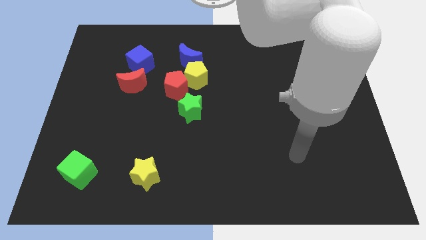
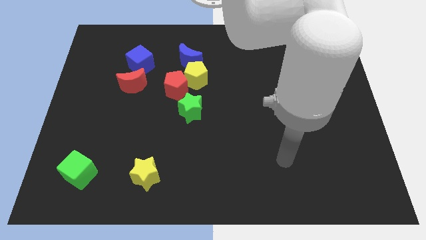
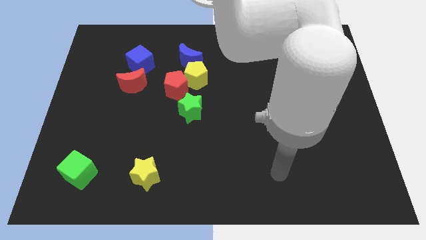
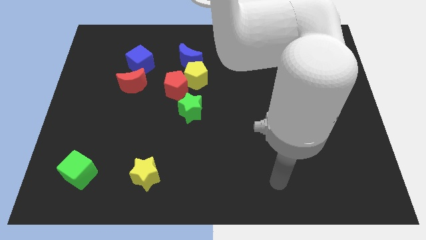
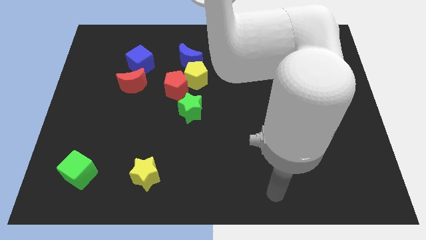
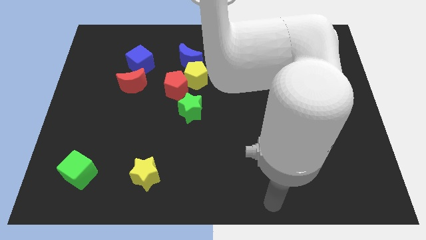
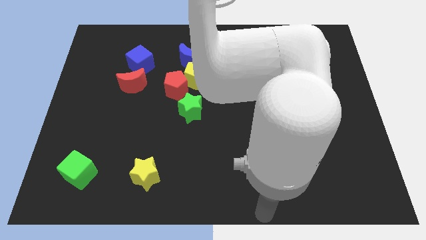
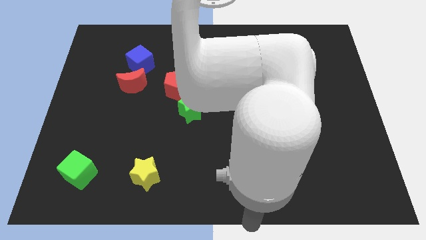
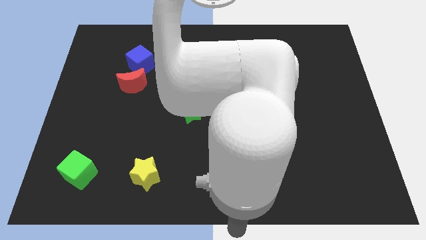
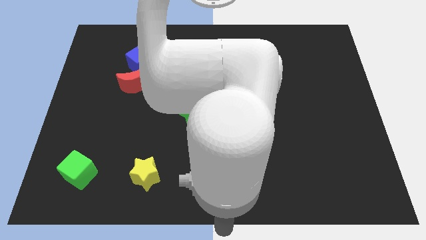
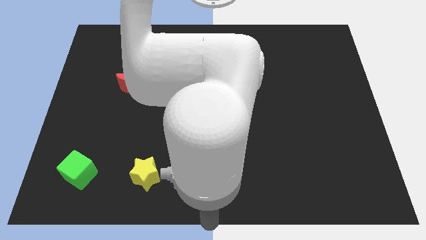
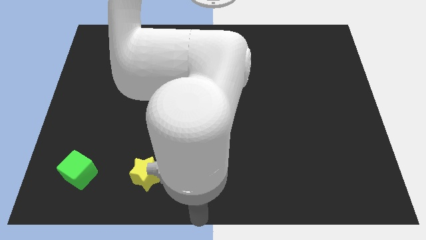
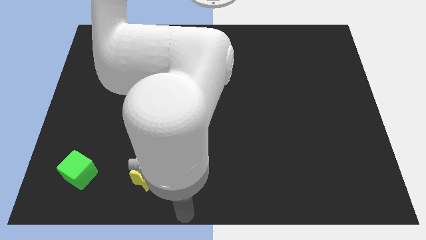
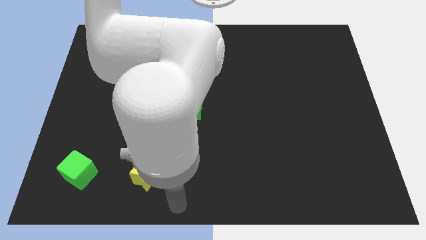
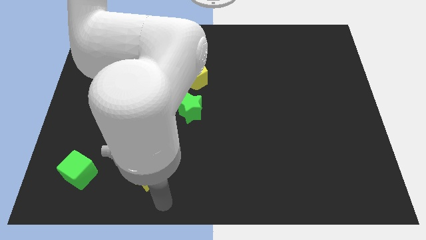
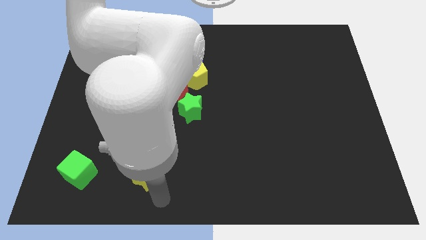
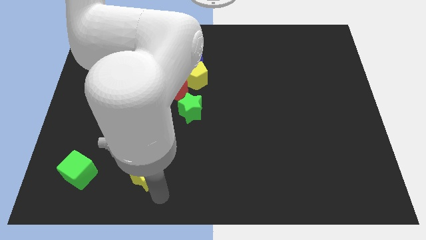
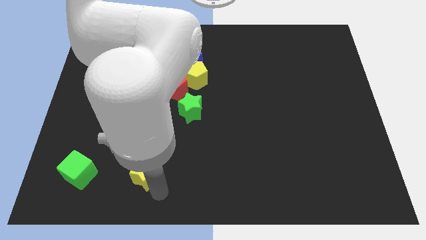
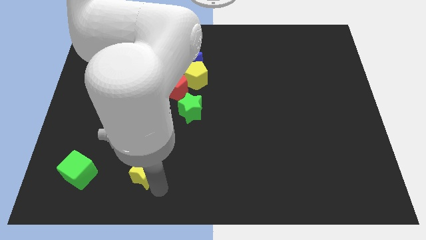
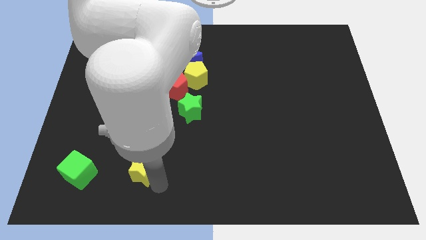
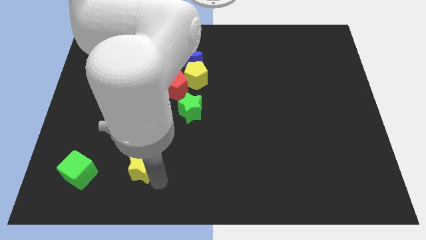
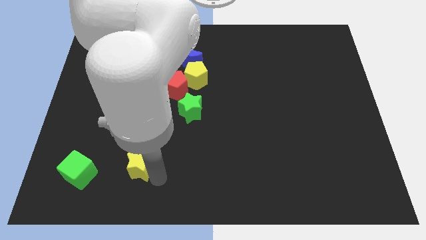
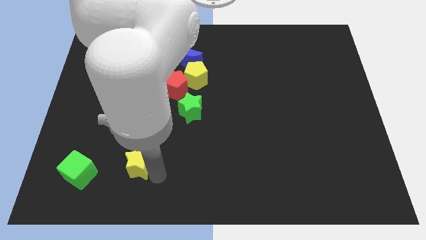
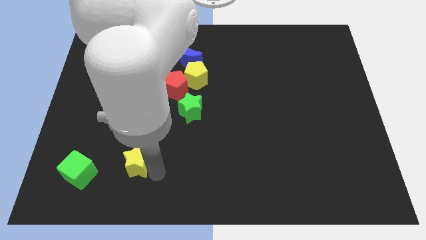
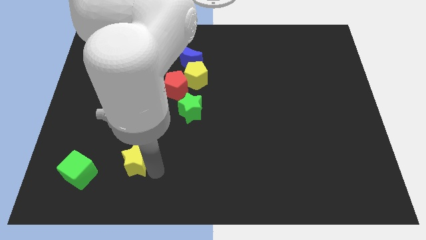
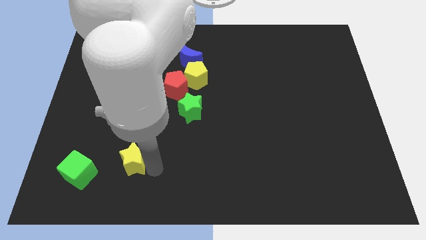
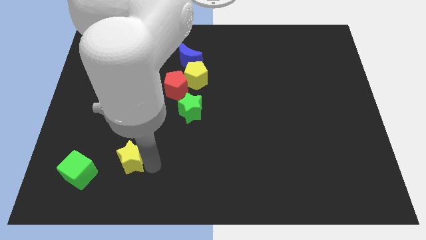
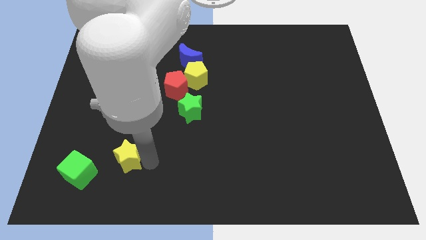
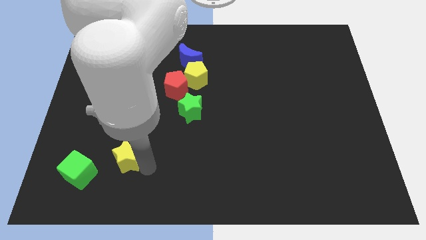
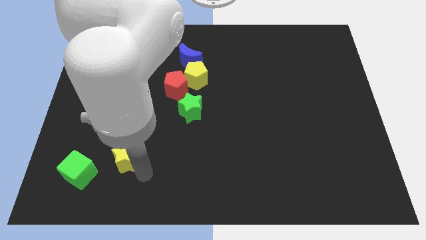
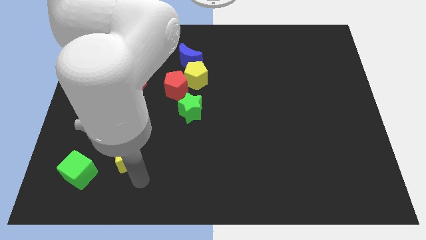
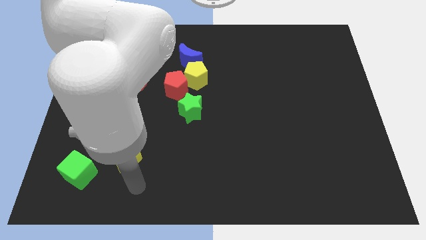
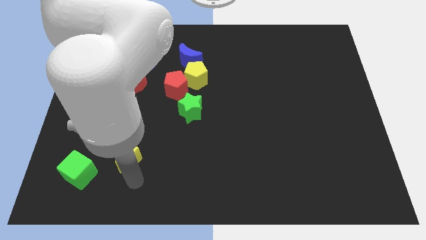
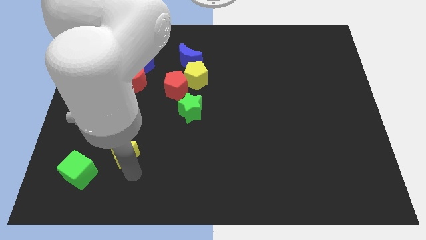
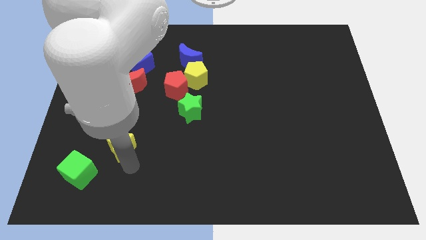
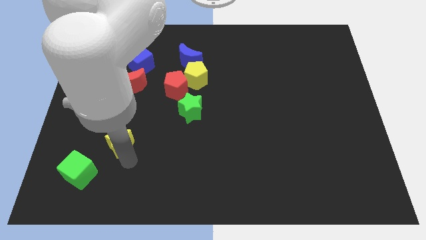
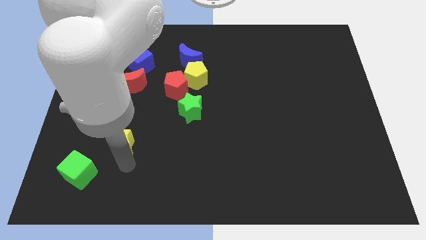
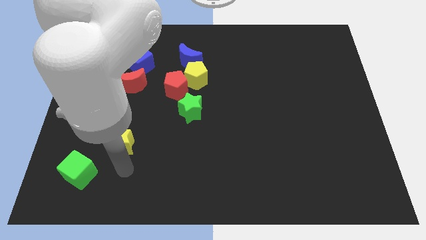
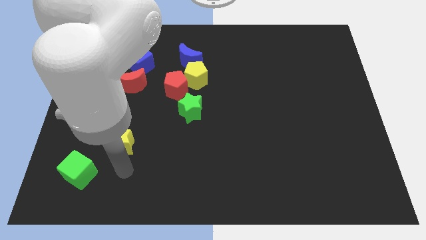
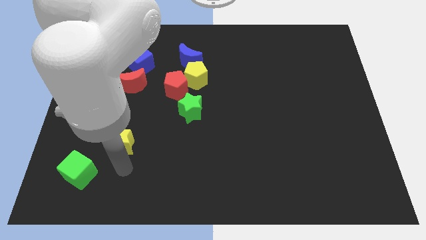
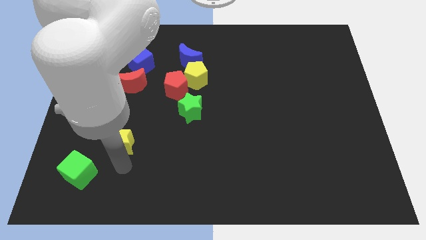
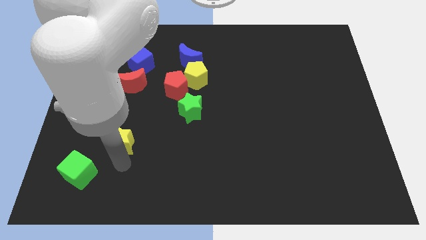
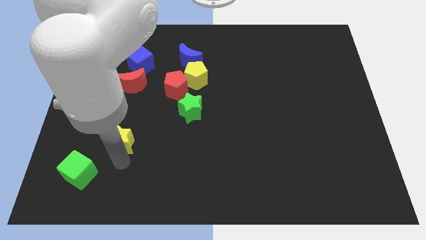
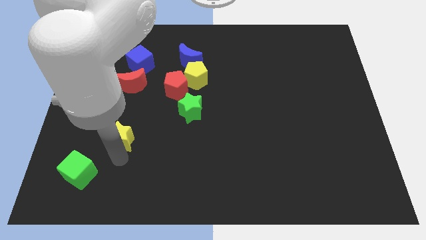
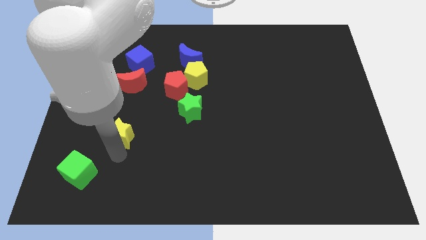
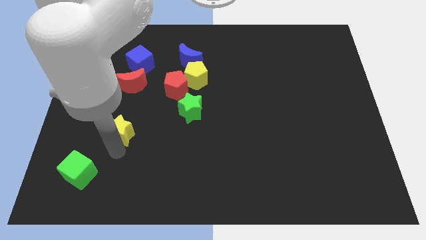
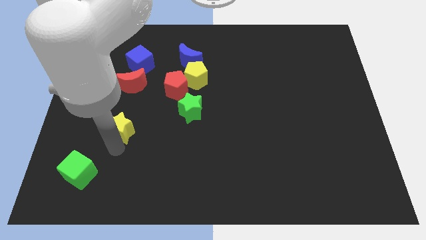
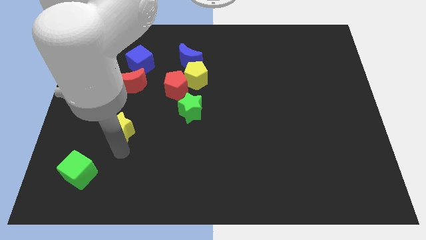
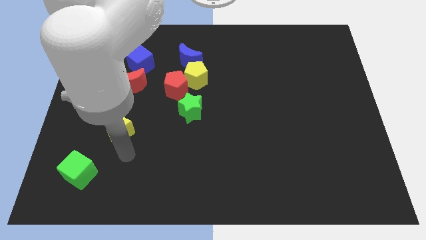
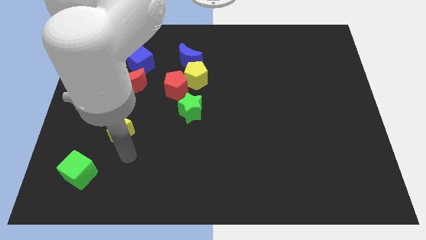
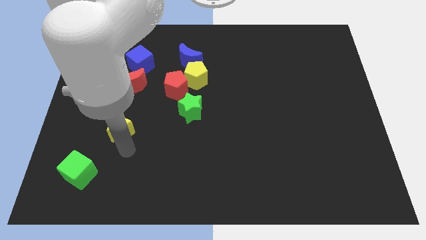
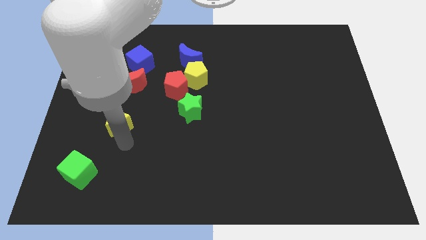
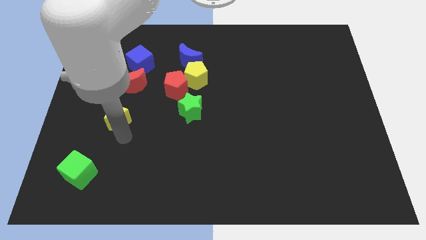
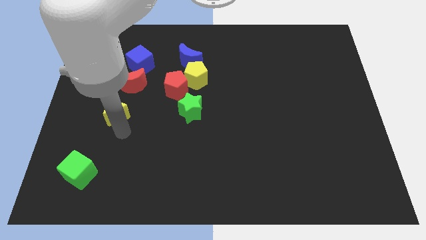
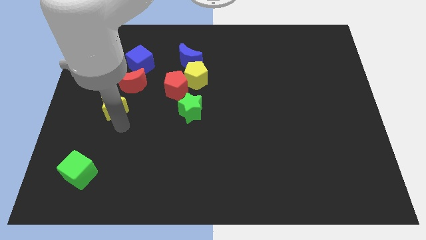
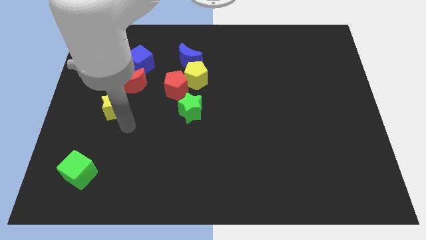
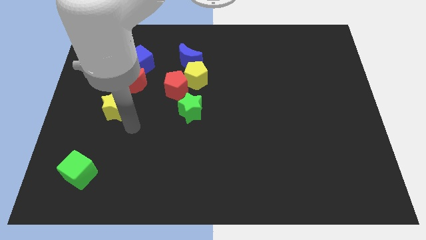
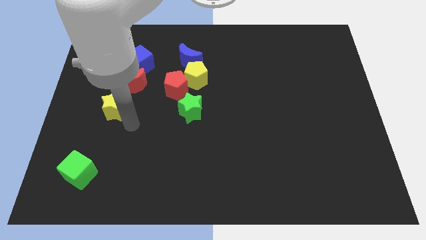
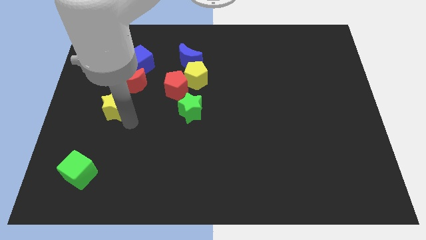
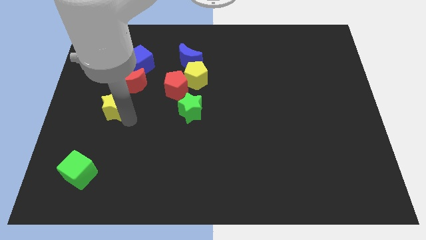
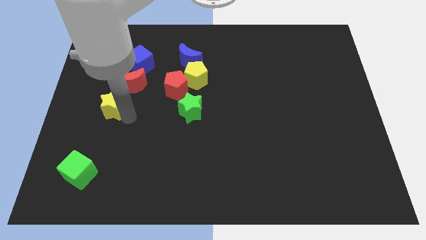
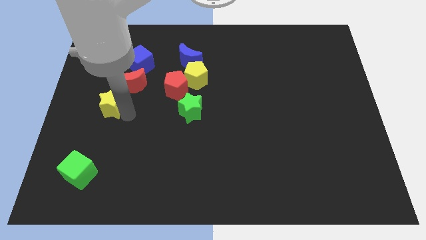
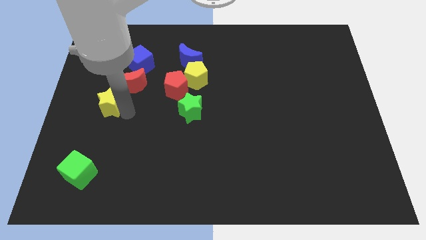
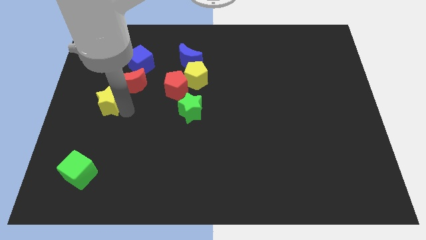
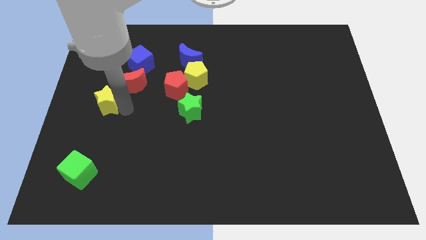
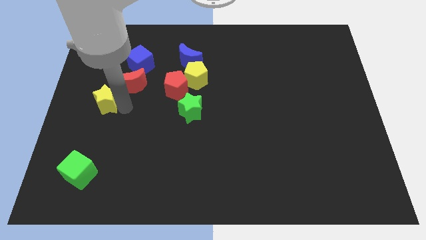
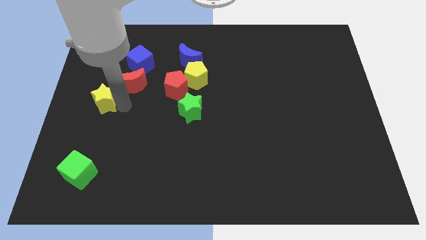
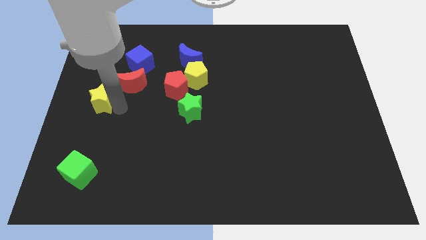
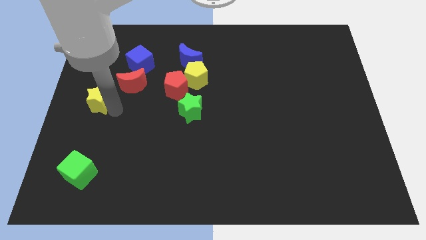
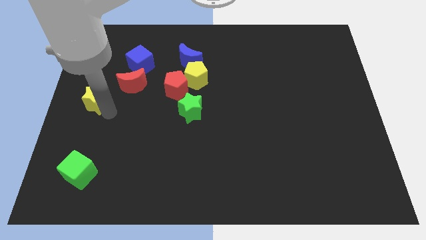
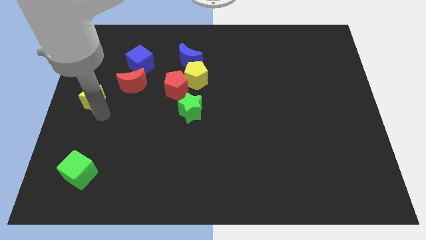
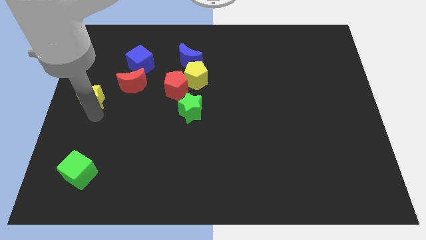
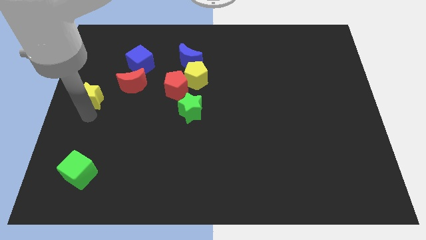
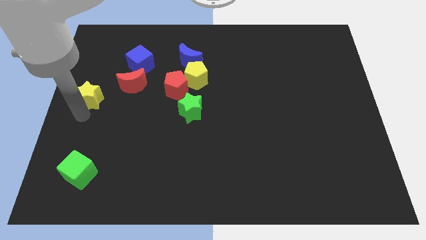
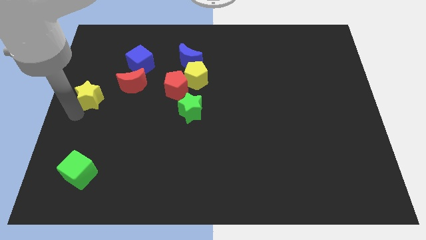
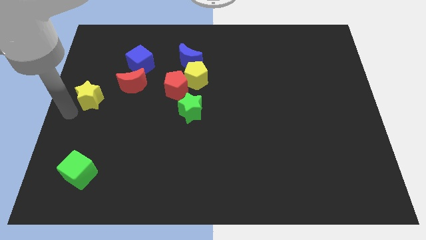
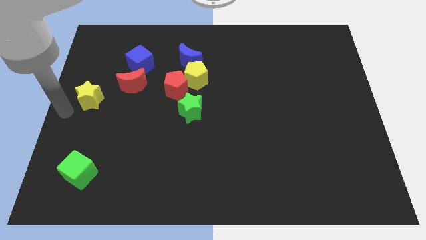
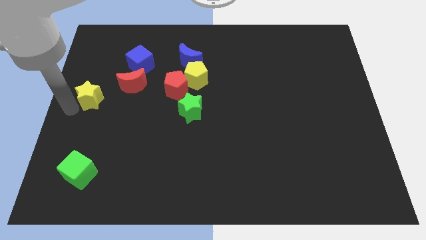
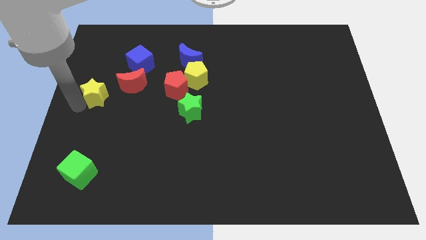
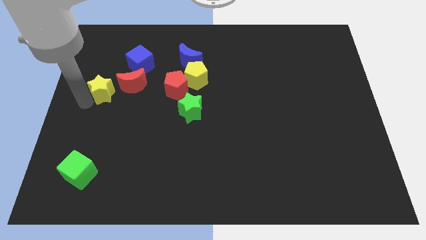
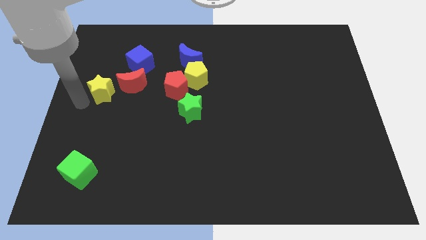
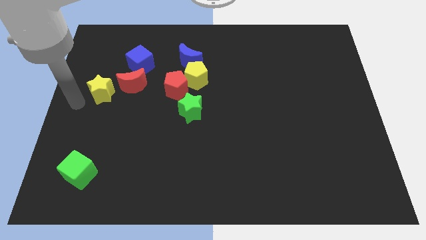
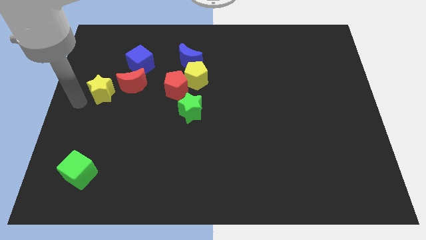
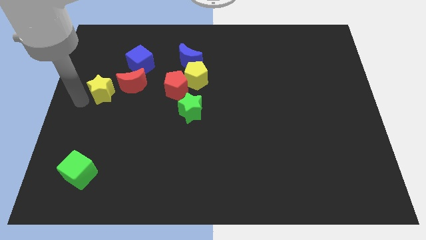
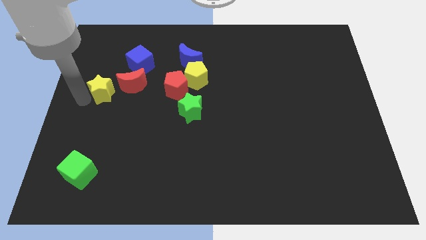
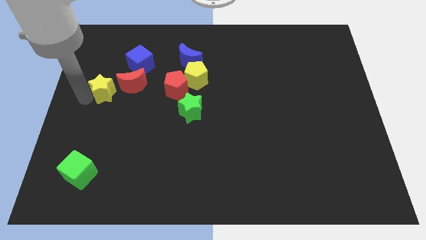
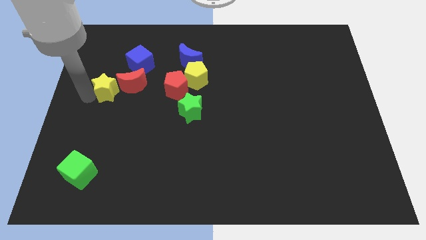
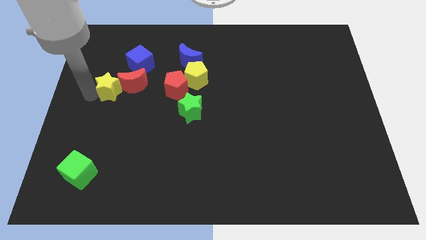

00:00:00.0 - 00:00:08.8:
put the yellow star just left of the red pentagon
